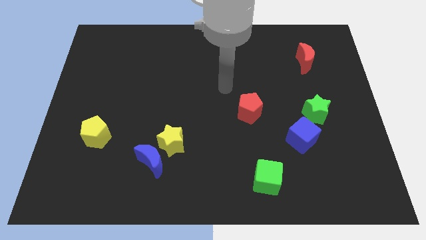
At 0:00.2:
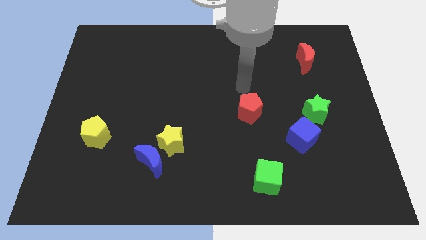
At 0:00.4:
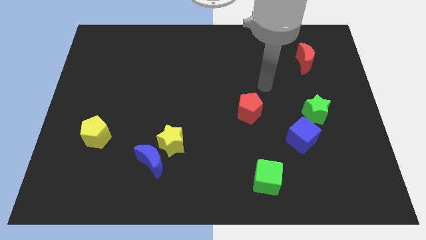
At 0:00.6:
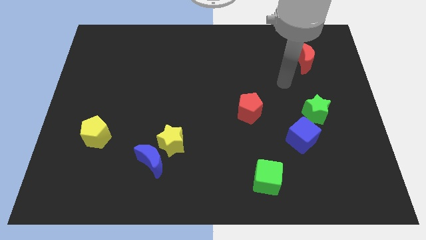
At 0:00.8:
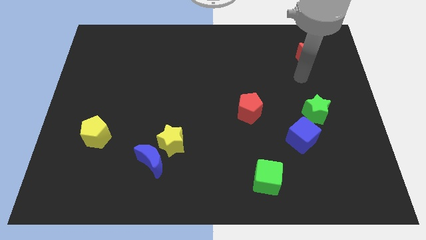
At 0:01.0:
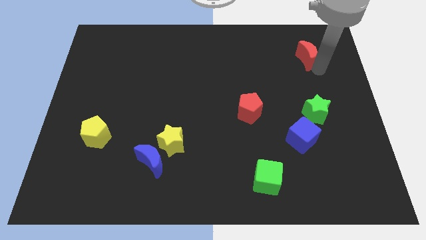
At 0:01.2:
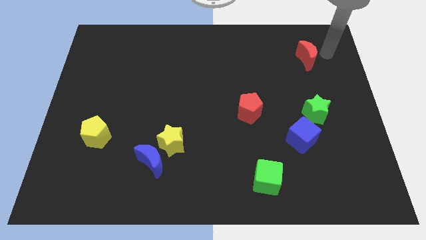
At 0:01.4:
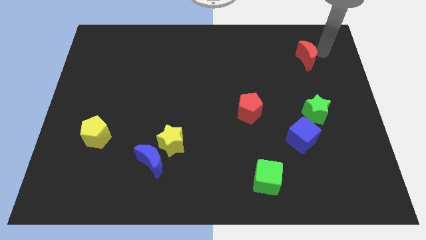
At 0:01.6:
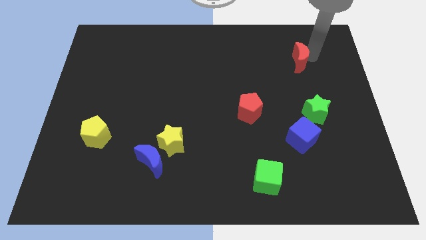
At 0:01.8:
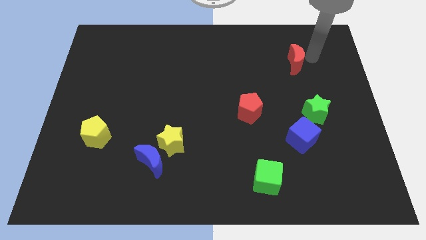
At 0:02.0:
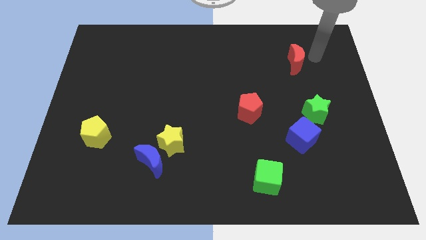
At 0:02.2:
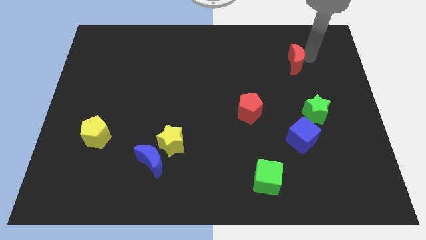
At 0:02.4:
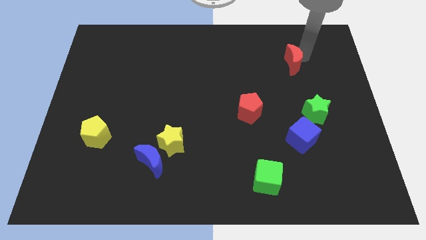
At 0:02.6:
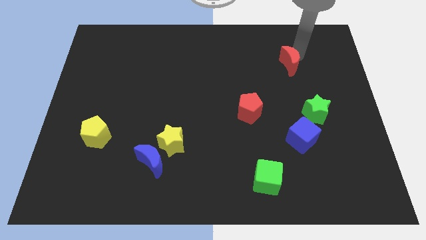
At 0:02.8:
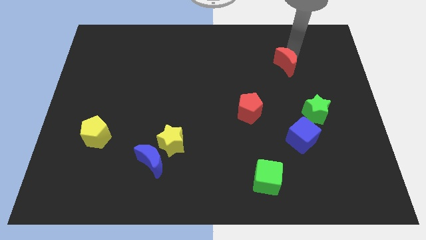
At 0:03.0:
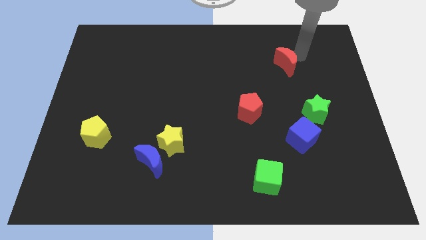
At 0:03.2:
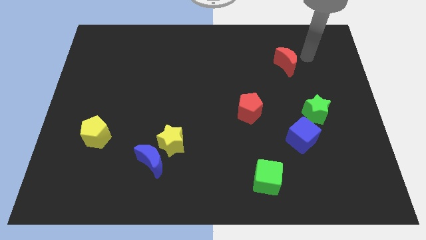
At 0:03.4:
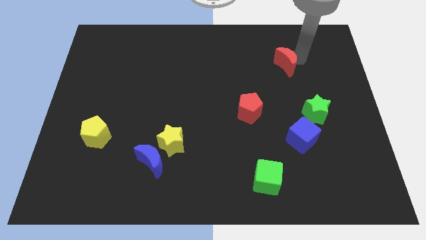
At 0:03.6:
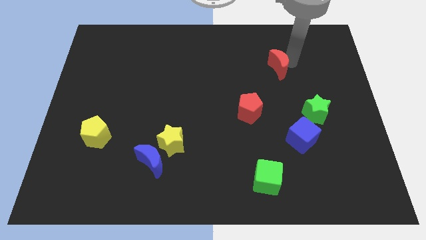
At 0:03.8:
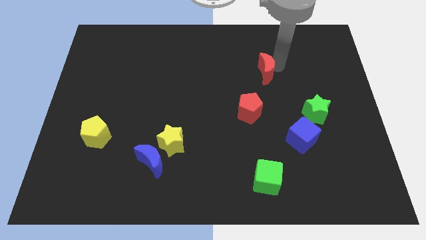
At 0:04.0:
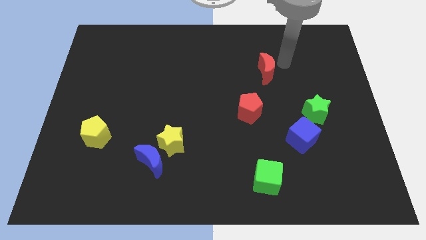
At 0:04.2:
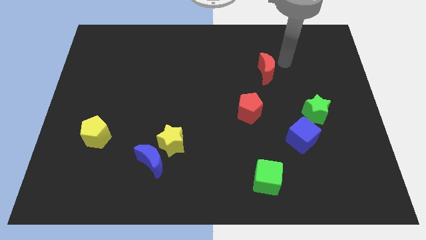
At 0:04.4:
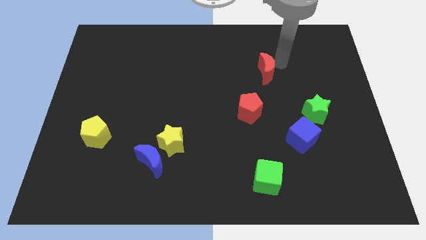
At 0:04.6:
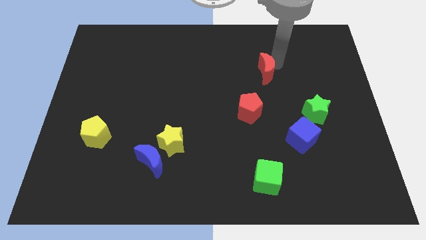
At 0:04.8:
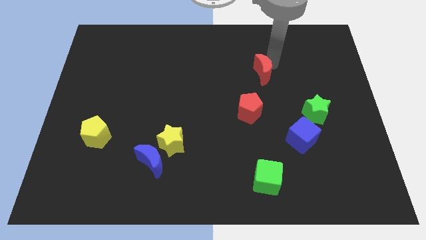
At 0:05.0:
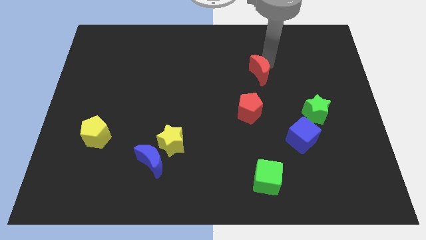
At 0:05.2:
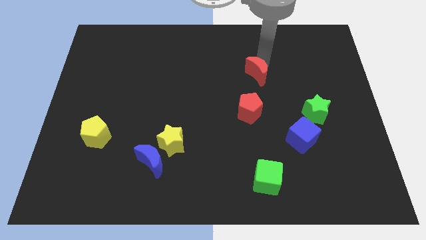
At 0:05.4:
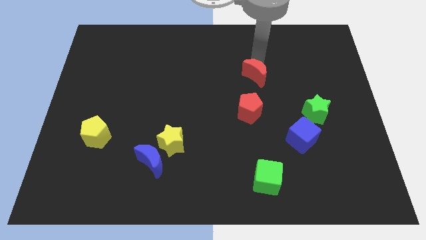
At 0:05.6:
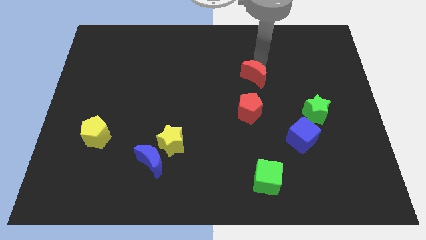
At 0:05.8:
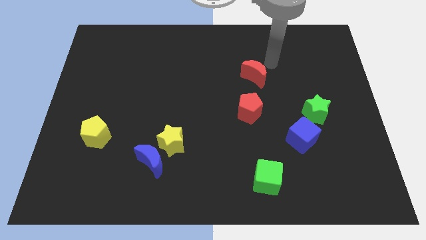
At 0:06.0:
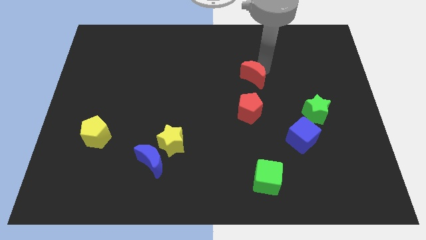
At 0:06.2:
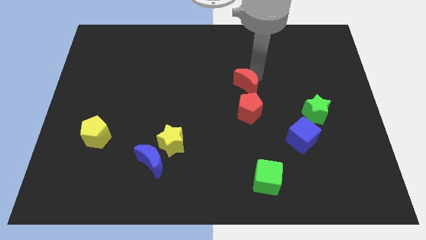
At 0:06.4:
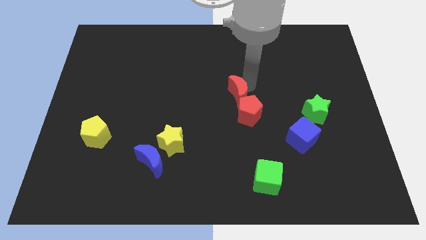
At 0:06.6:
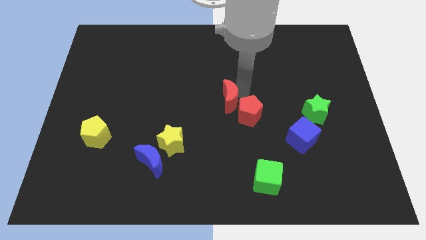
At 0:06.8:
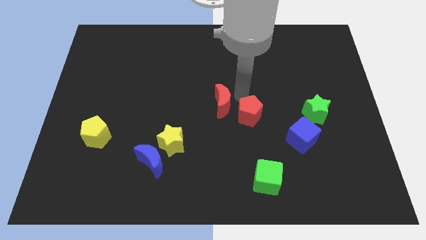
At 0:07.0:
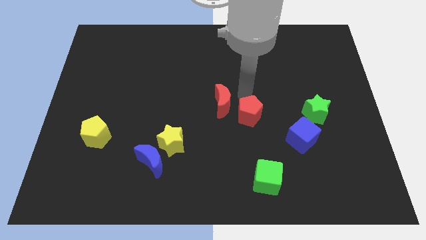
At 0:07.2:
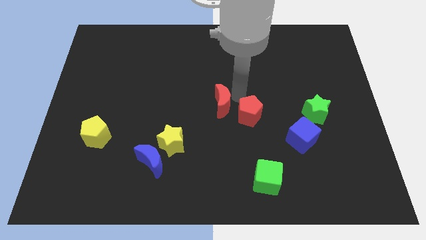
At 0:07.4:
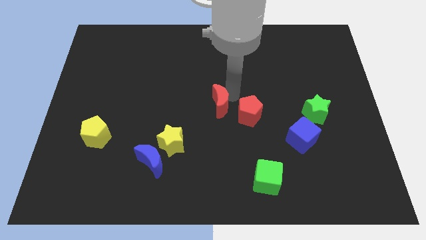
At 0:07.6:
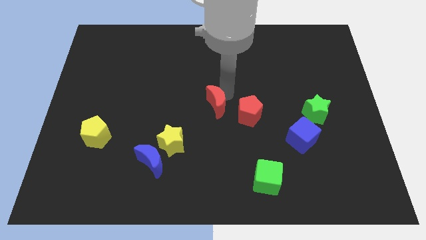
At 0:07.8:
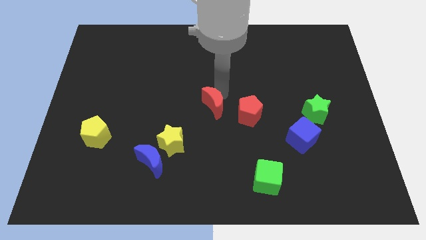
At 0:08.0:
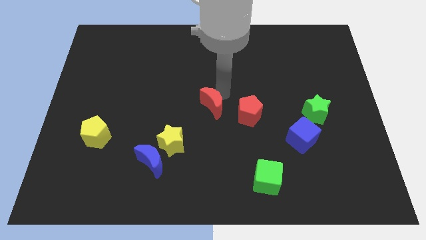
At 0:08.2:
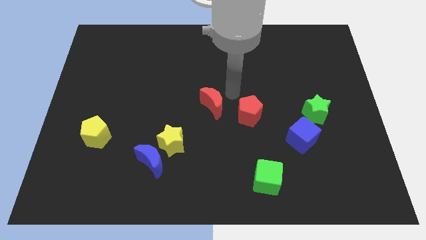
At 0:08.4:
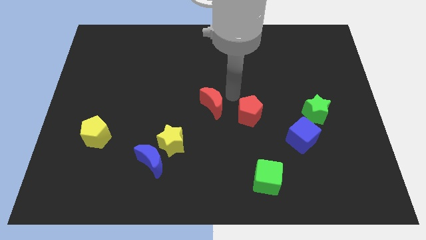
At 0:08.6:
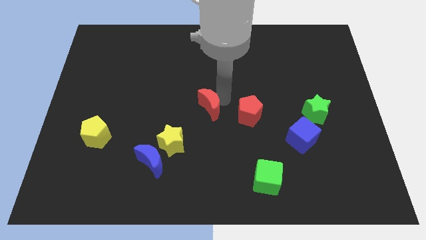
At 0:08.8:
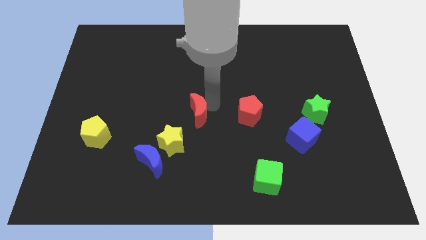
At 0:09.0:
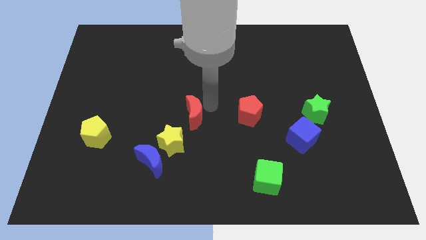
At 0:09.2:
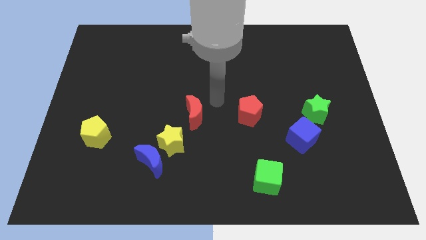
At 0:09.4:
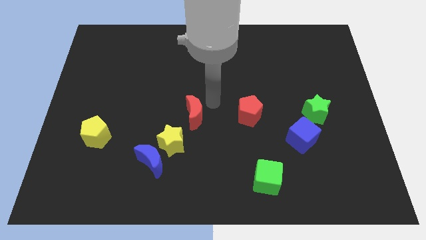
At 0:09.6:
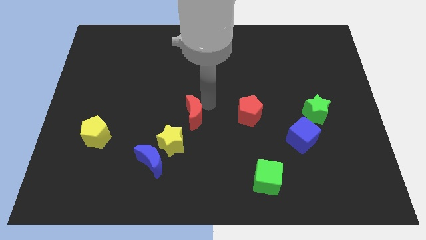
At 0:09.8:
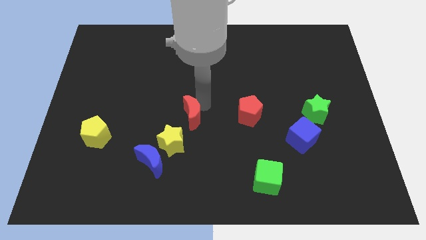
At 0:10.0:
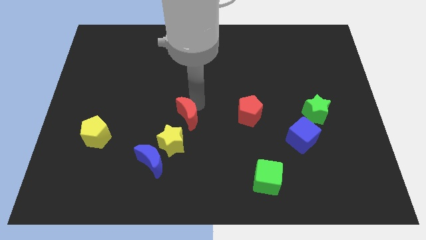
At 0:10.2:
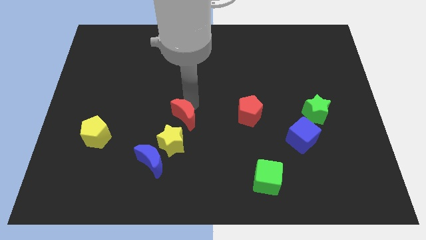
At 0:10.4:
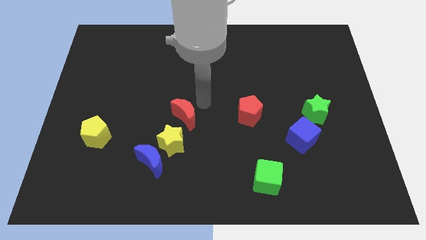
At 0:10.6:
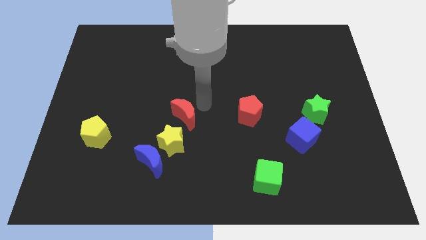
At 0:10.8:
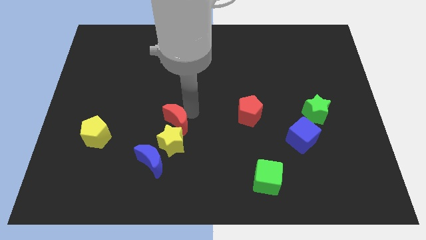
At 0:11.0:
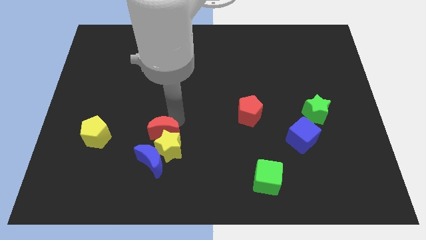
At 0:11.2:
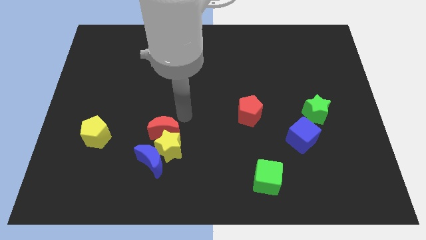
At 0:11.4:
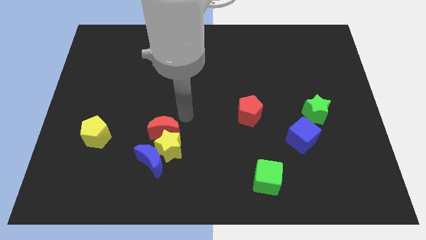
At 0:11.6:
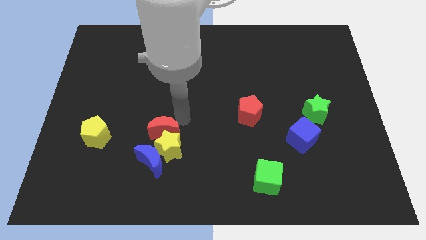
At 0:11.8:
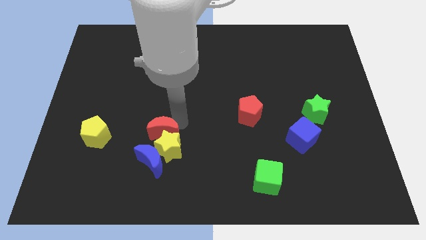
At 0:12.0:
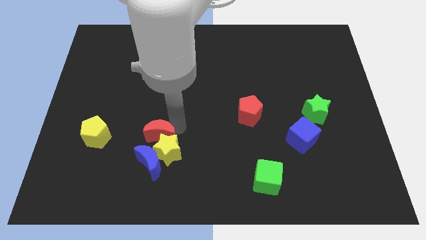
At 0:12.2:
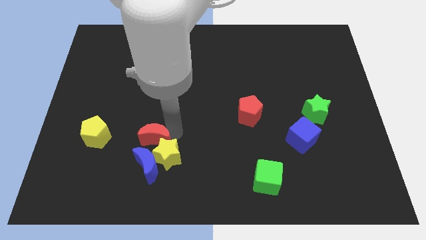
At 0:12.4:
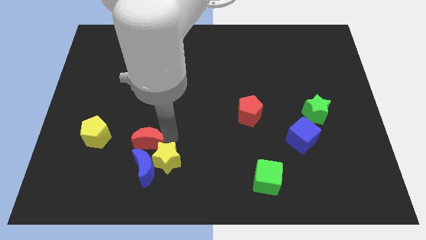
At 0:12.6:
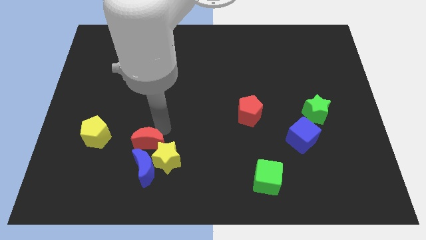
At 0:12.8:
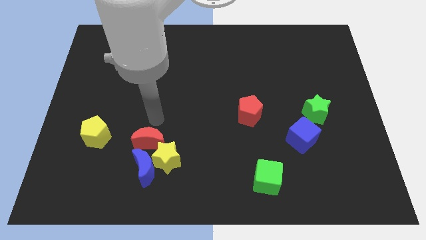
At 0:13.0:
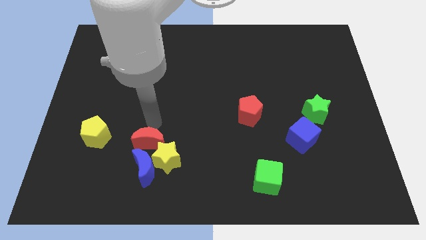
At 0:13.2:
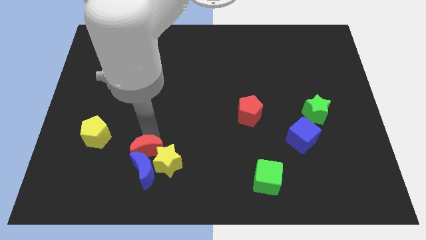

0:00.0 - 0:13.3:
put the red moon close to the blue moon

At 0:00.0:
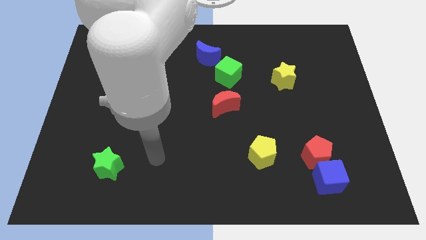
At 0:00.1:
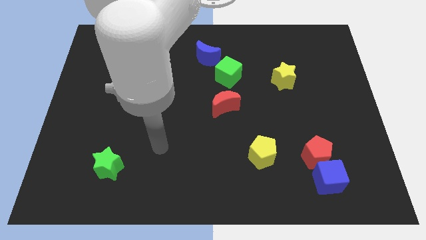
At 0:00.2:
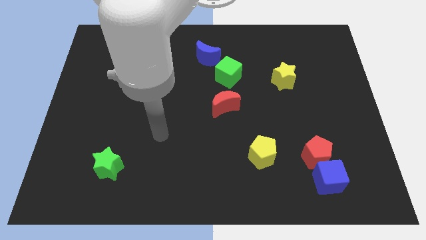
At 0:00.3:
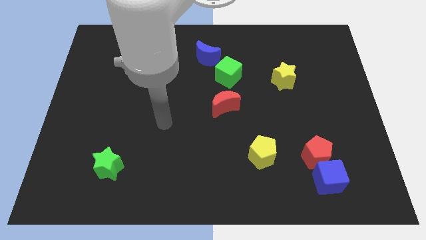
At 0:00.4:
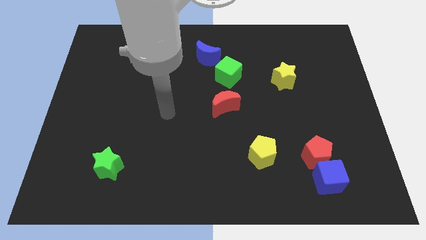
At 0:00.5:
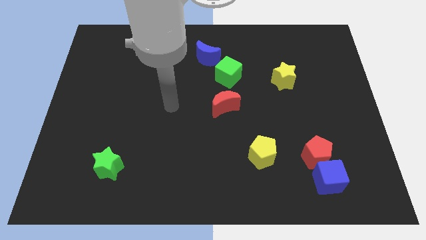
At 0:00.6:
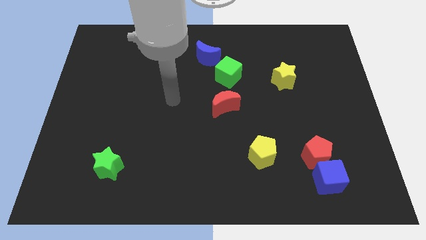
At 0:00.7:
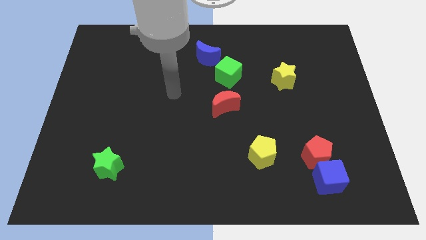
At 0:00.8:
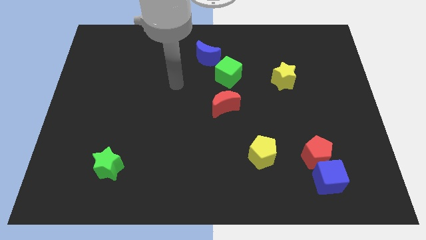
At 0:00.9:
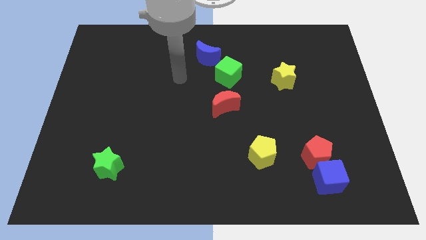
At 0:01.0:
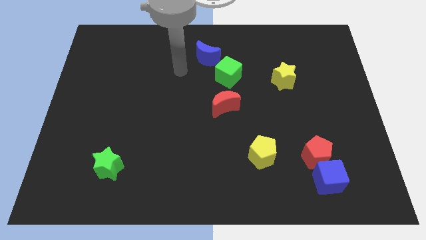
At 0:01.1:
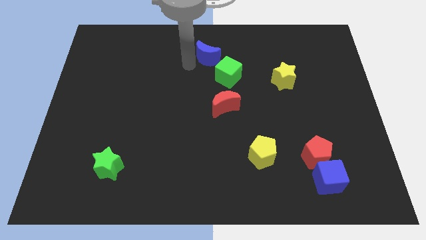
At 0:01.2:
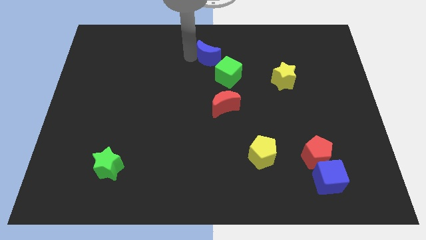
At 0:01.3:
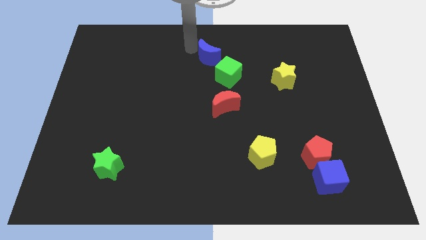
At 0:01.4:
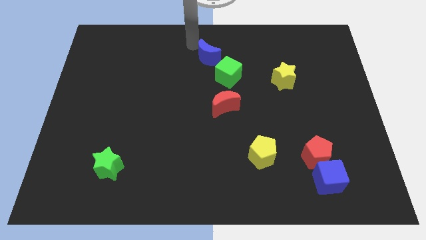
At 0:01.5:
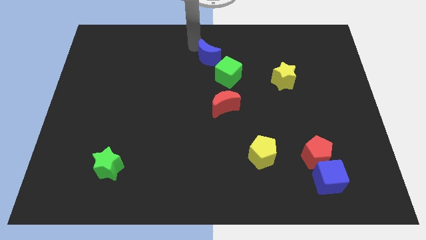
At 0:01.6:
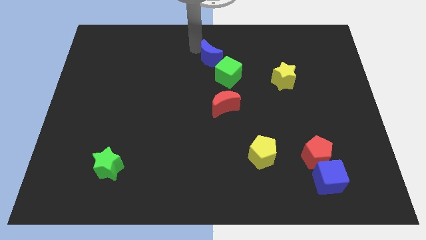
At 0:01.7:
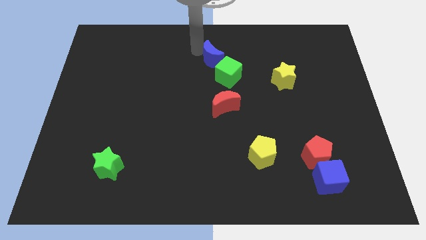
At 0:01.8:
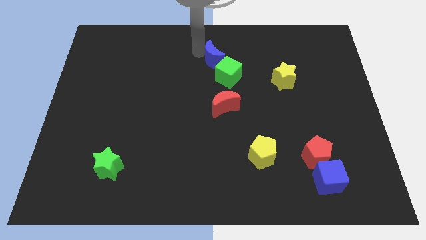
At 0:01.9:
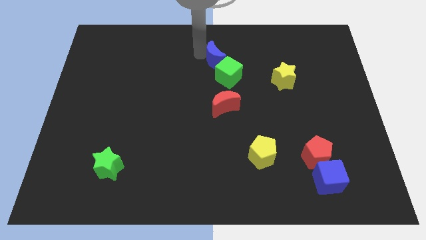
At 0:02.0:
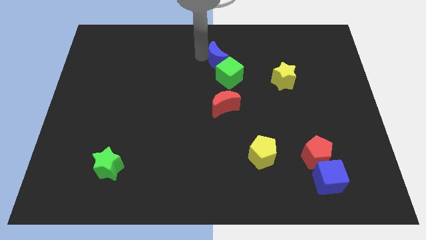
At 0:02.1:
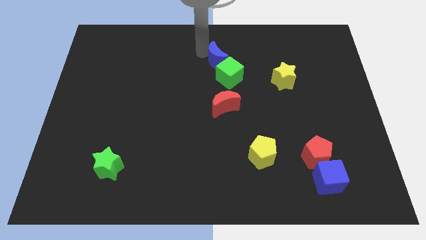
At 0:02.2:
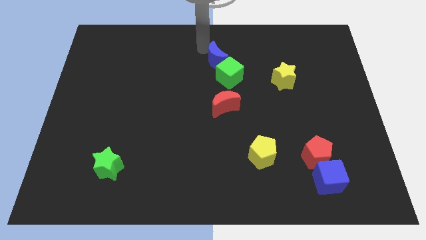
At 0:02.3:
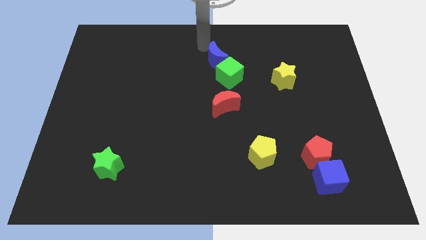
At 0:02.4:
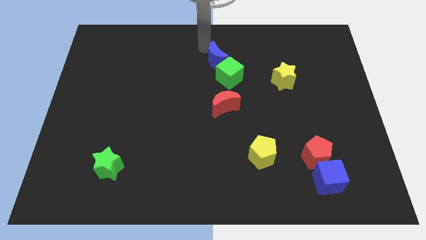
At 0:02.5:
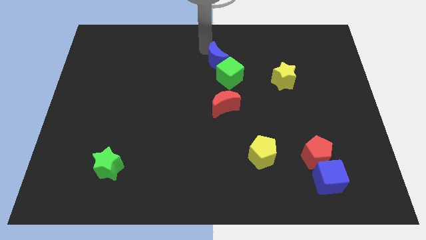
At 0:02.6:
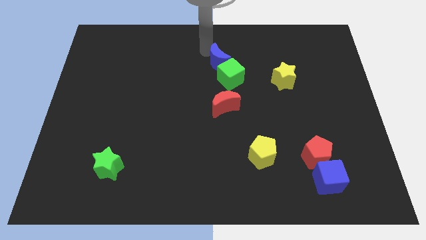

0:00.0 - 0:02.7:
move the blue moon next to the green cube
